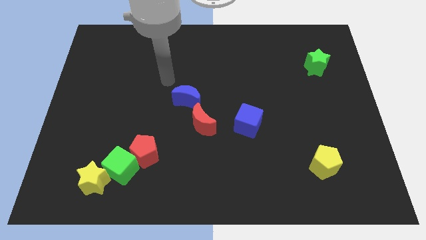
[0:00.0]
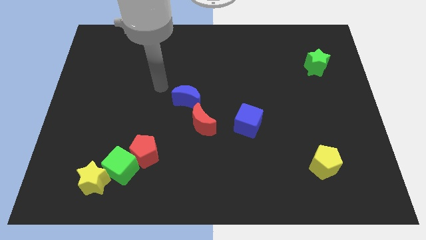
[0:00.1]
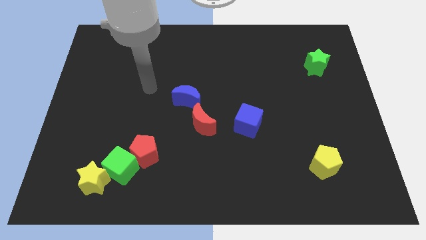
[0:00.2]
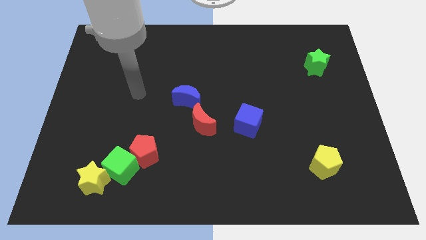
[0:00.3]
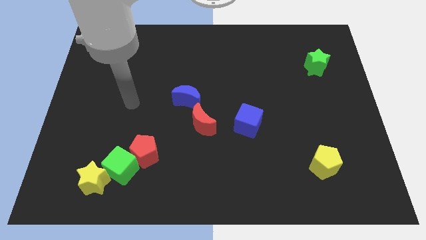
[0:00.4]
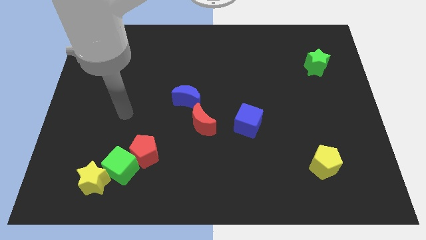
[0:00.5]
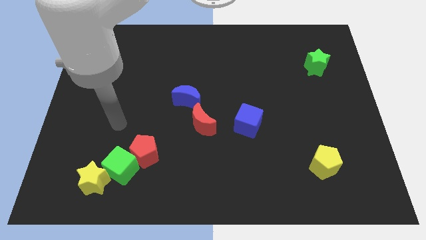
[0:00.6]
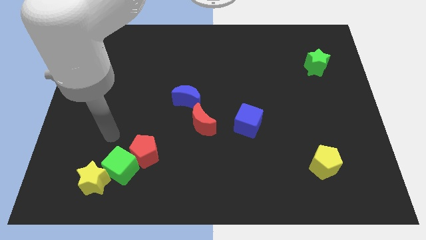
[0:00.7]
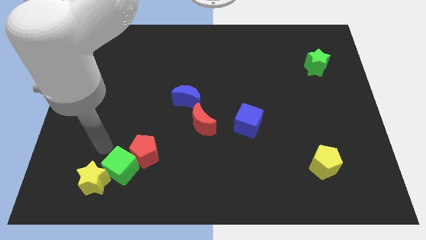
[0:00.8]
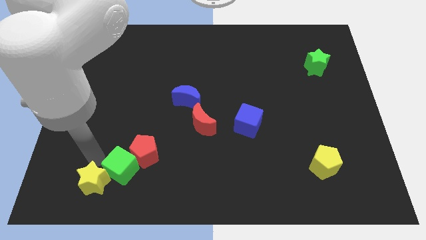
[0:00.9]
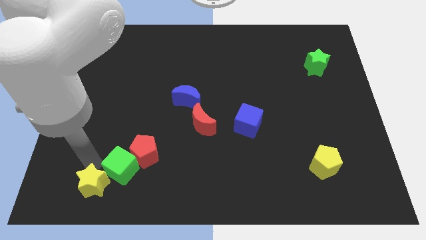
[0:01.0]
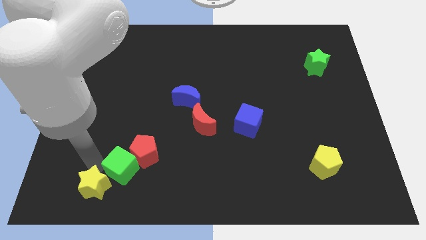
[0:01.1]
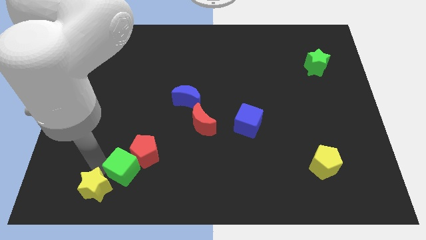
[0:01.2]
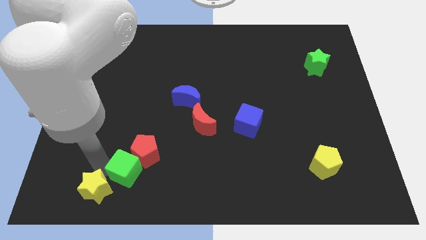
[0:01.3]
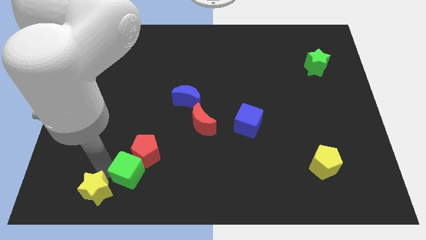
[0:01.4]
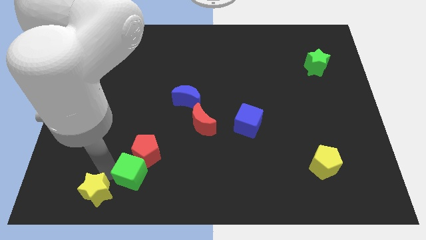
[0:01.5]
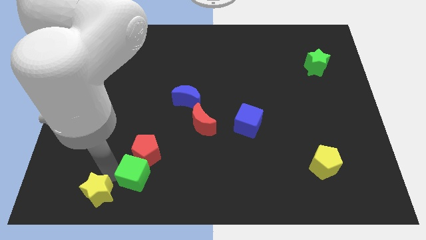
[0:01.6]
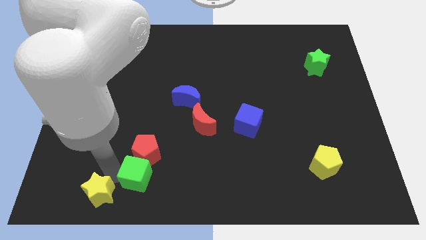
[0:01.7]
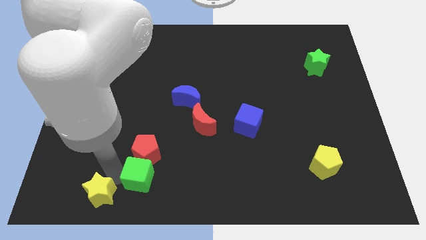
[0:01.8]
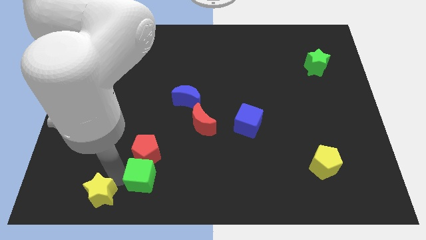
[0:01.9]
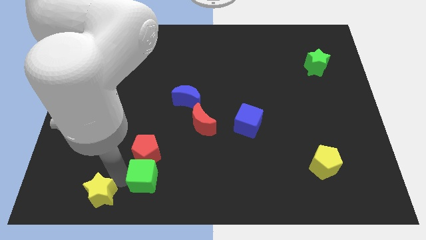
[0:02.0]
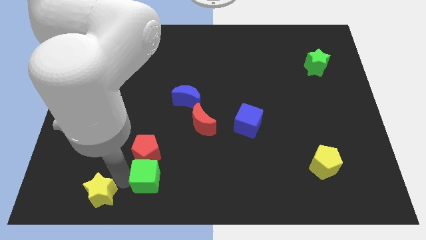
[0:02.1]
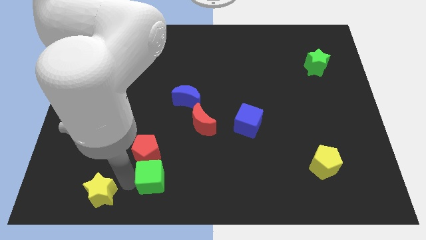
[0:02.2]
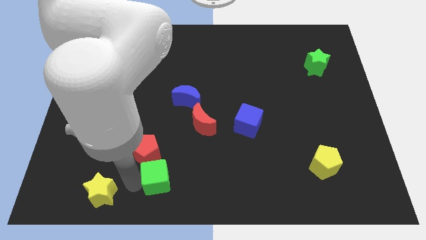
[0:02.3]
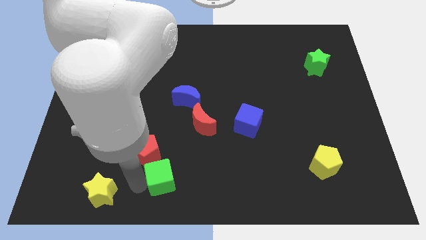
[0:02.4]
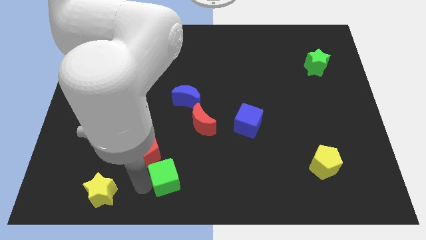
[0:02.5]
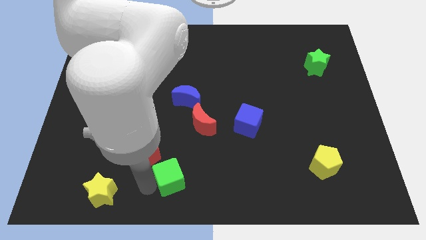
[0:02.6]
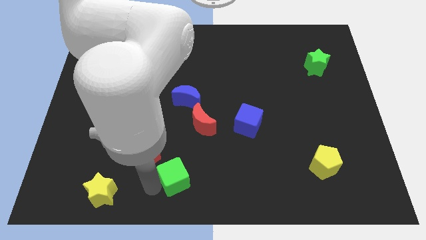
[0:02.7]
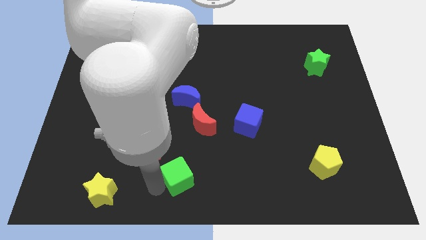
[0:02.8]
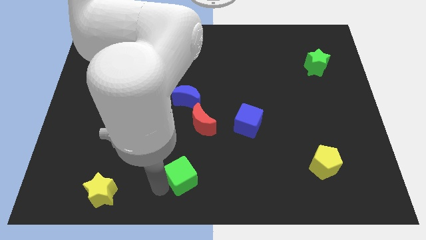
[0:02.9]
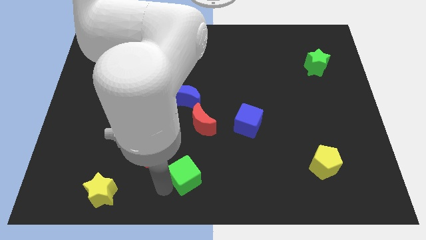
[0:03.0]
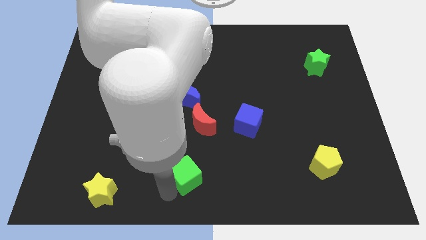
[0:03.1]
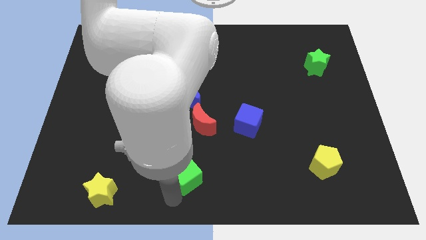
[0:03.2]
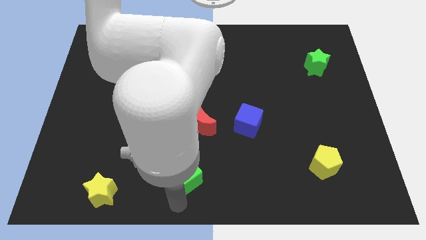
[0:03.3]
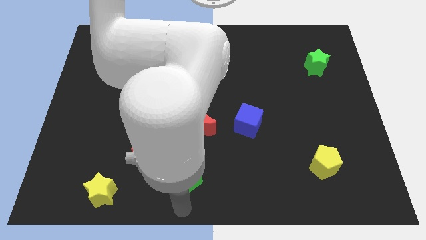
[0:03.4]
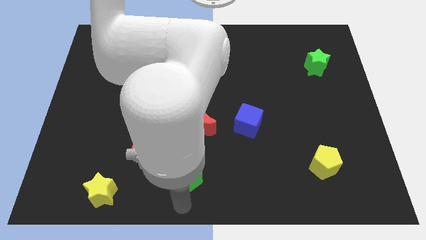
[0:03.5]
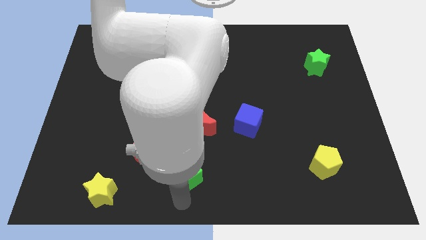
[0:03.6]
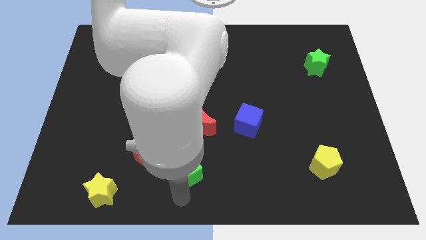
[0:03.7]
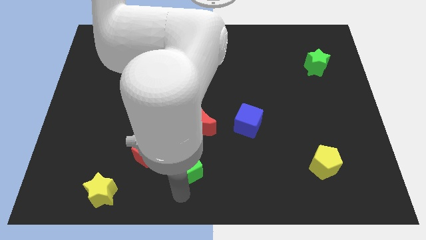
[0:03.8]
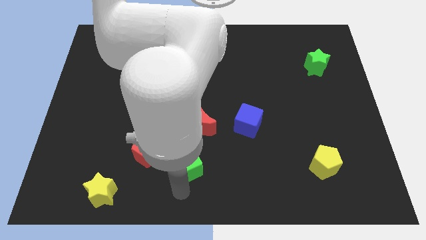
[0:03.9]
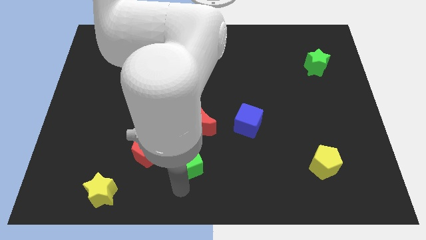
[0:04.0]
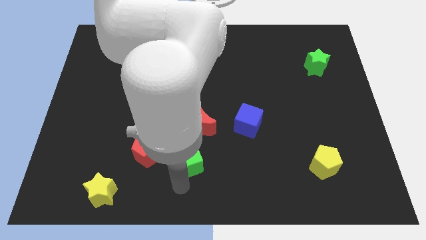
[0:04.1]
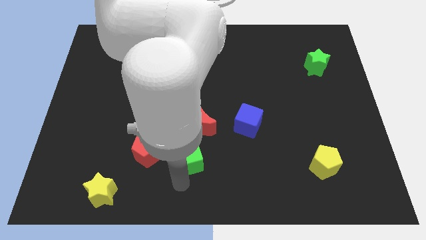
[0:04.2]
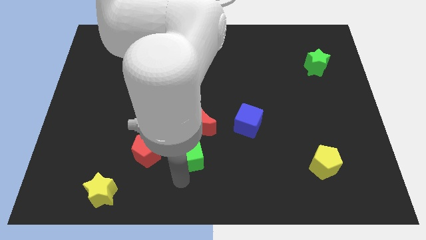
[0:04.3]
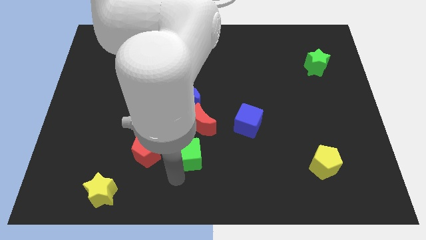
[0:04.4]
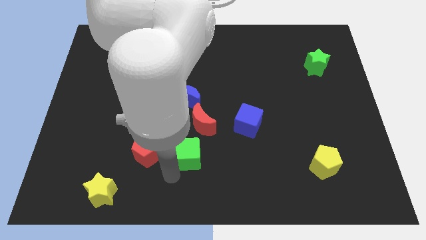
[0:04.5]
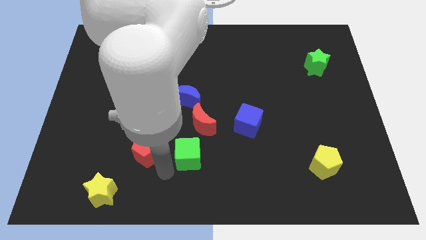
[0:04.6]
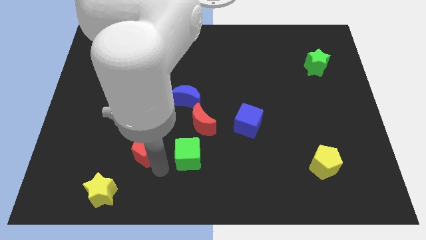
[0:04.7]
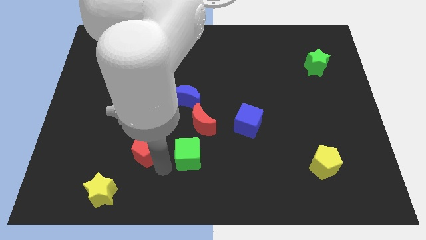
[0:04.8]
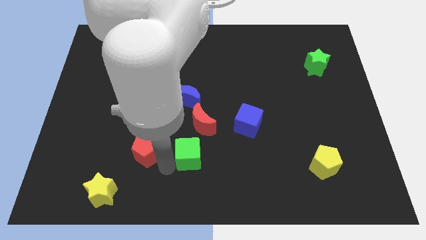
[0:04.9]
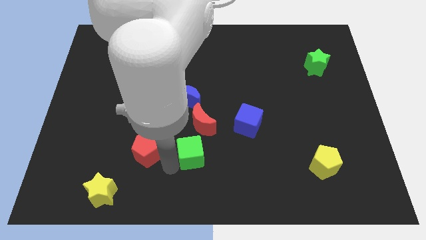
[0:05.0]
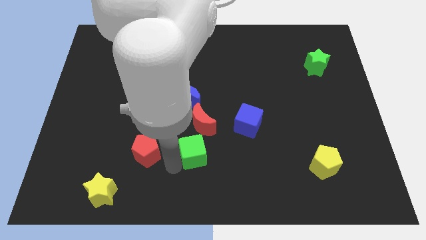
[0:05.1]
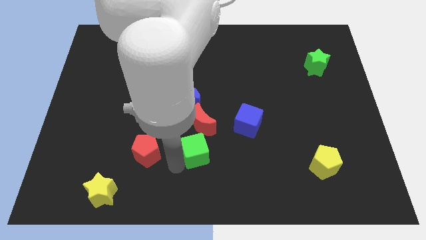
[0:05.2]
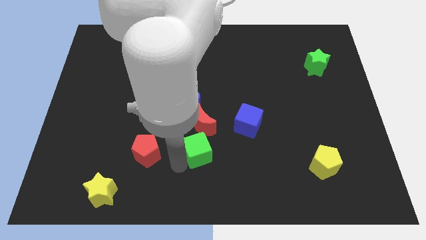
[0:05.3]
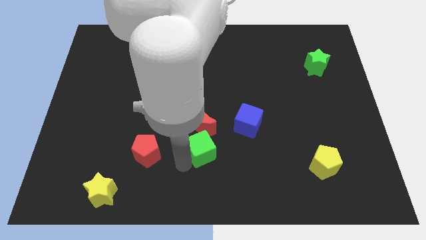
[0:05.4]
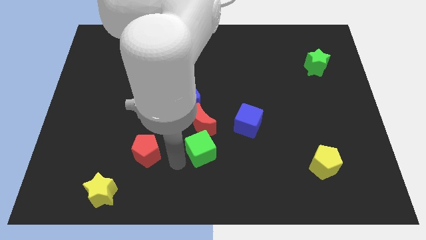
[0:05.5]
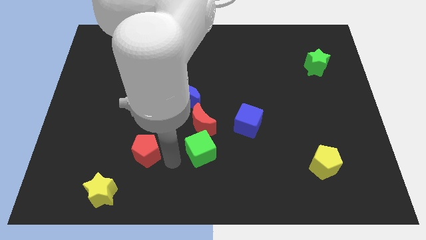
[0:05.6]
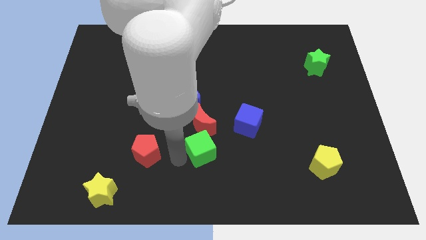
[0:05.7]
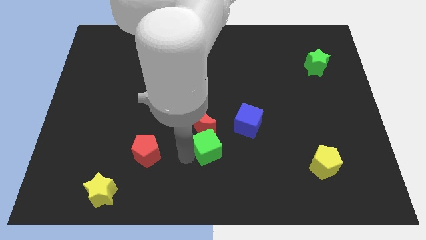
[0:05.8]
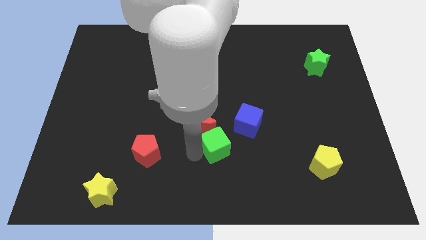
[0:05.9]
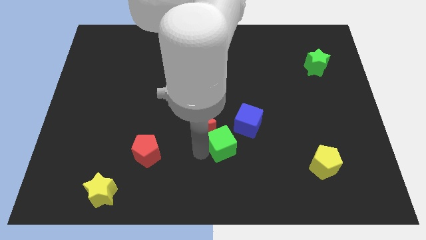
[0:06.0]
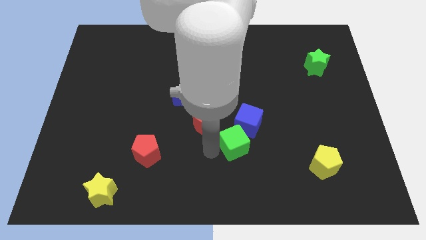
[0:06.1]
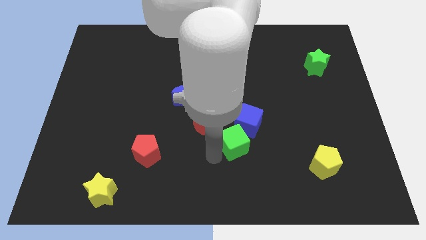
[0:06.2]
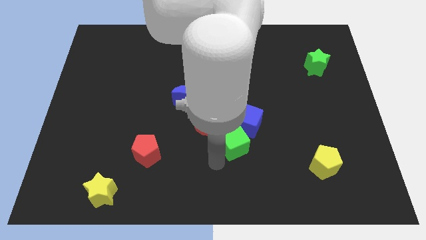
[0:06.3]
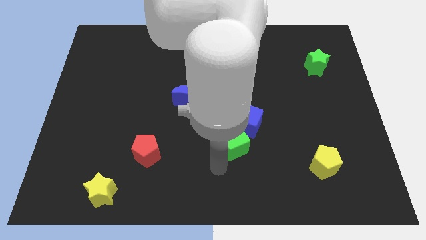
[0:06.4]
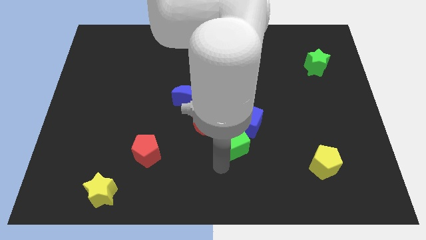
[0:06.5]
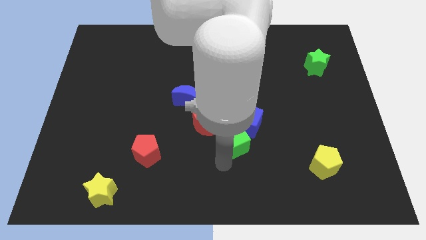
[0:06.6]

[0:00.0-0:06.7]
put the green cube towards the blue cube
